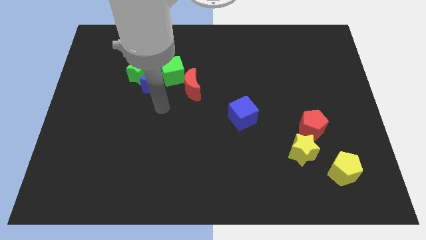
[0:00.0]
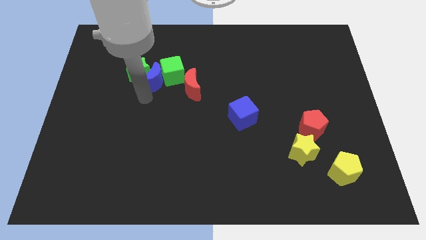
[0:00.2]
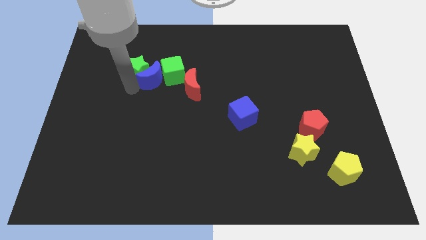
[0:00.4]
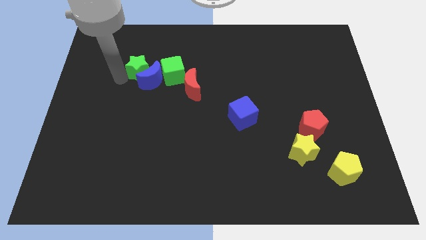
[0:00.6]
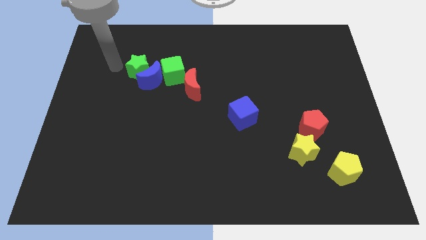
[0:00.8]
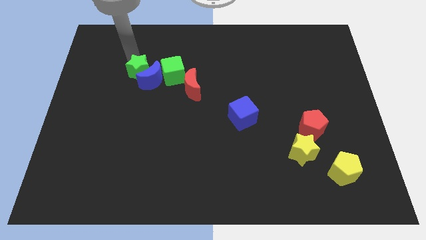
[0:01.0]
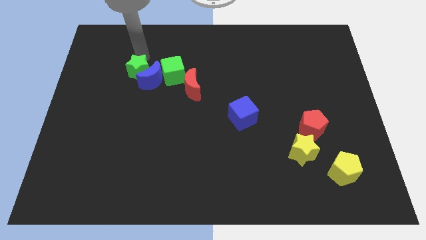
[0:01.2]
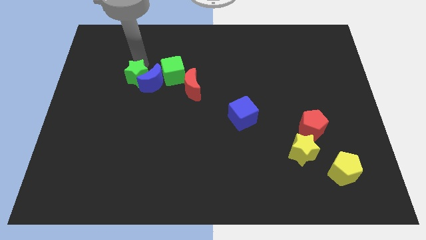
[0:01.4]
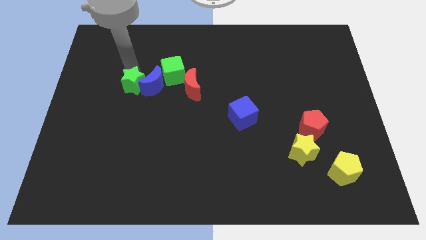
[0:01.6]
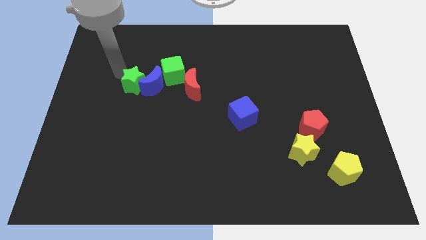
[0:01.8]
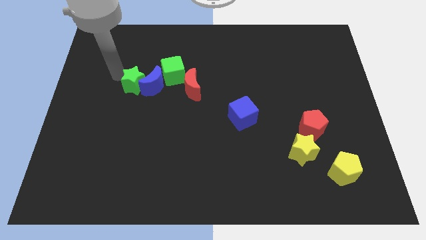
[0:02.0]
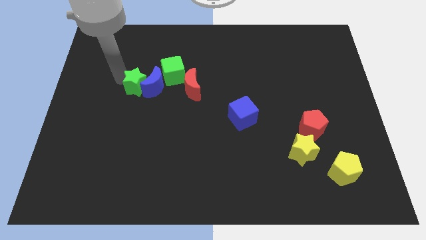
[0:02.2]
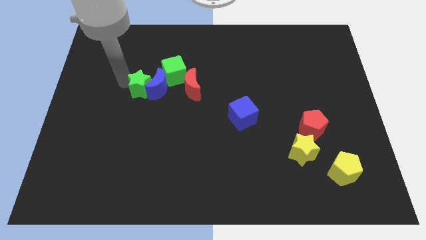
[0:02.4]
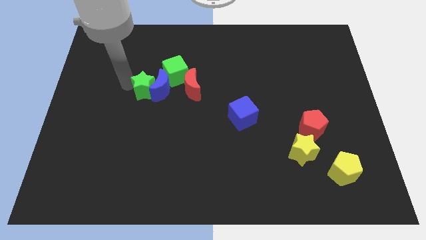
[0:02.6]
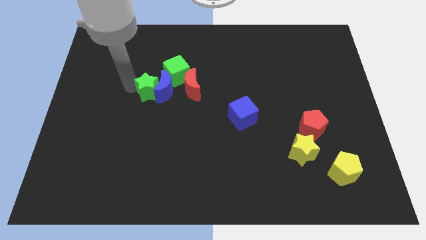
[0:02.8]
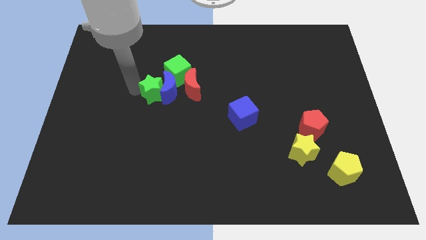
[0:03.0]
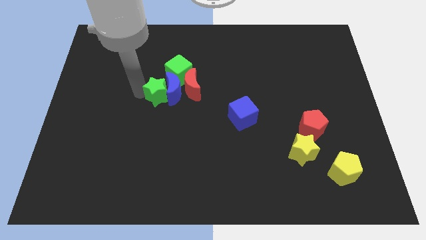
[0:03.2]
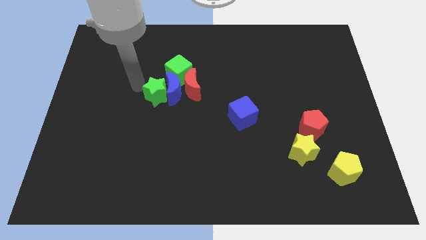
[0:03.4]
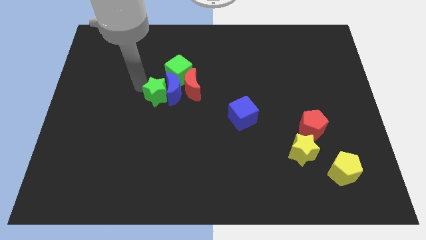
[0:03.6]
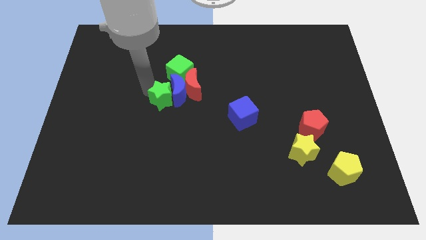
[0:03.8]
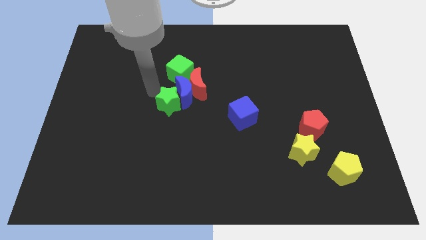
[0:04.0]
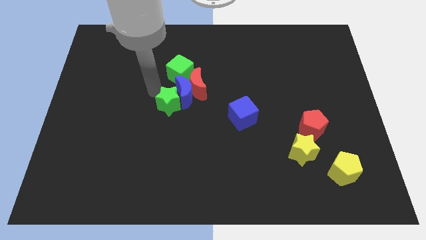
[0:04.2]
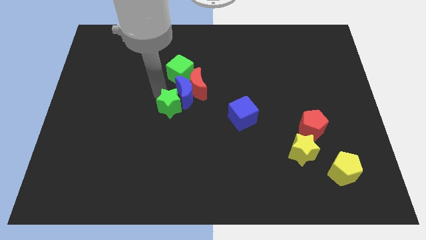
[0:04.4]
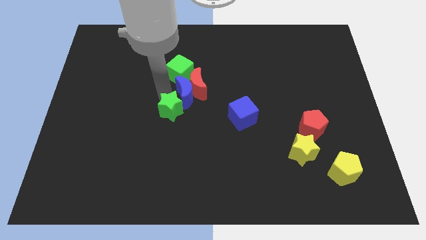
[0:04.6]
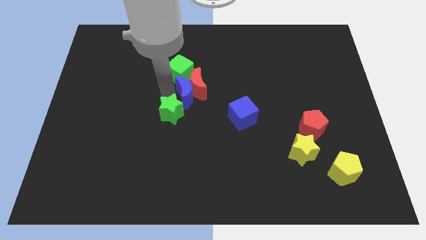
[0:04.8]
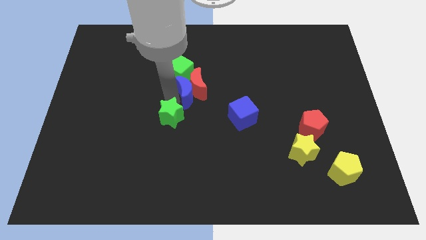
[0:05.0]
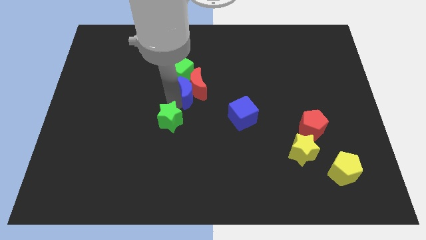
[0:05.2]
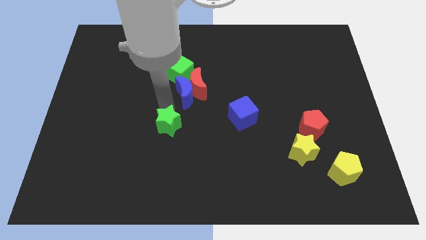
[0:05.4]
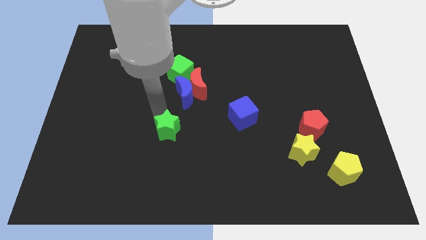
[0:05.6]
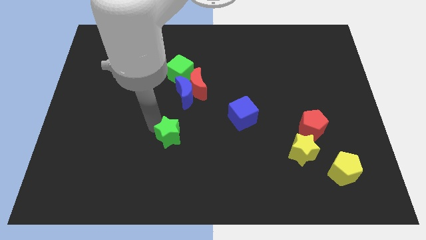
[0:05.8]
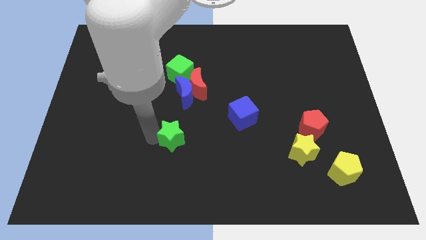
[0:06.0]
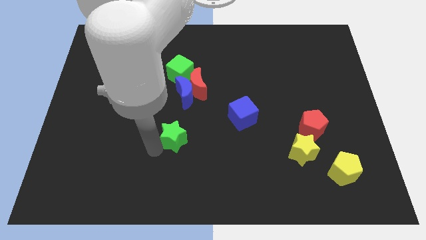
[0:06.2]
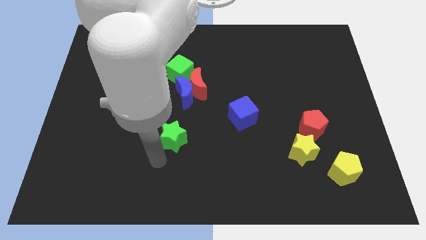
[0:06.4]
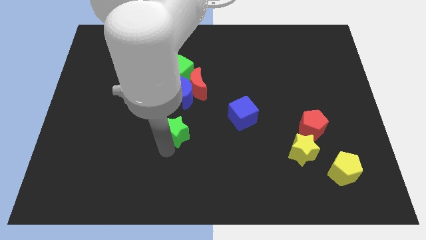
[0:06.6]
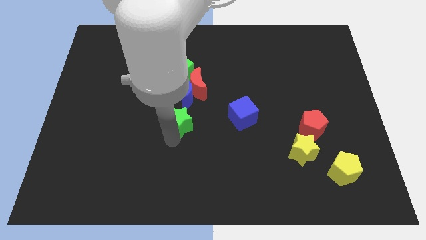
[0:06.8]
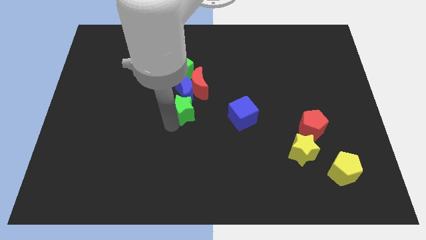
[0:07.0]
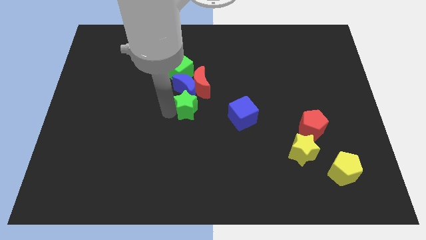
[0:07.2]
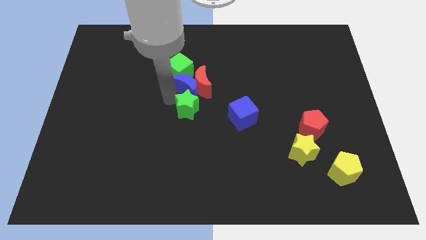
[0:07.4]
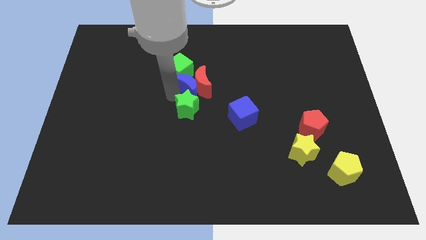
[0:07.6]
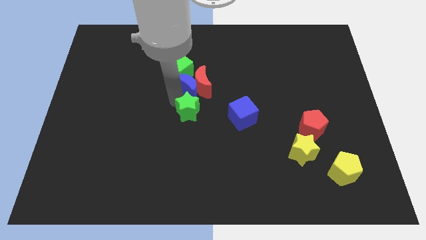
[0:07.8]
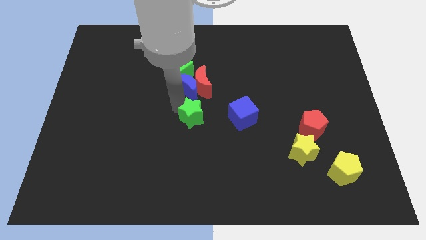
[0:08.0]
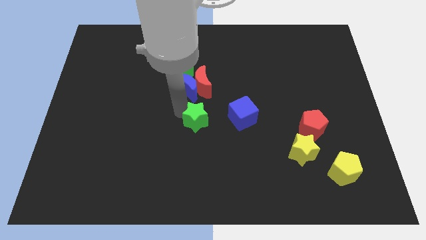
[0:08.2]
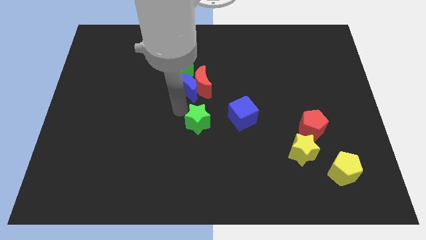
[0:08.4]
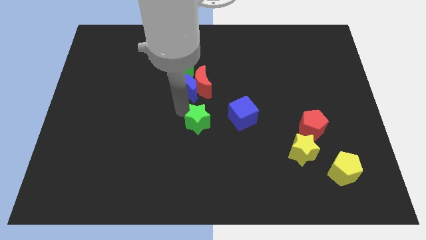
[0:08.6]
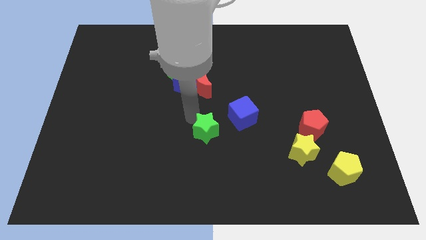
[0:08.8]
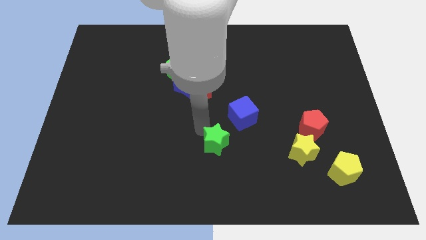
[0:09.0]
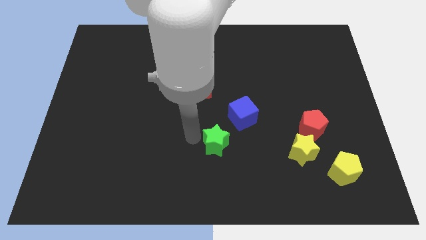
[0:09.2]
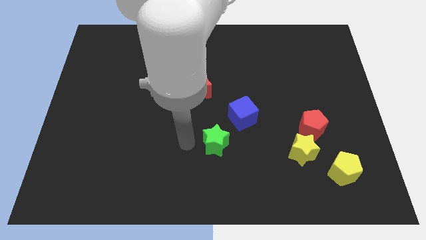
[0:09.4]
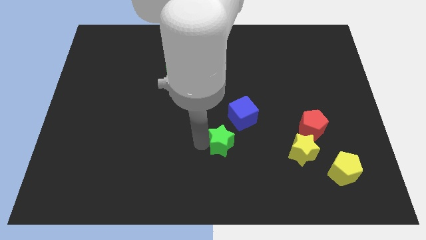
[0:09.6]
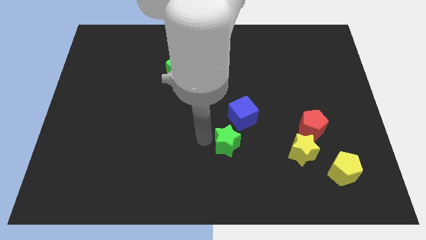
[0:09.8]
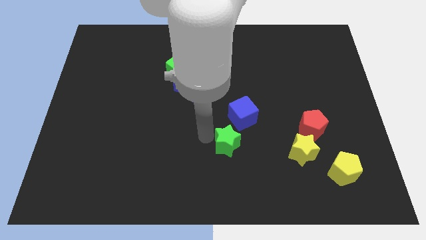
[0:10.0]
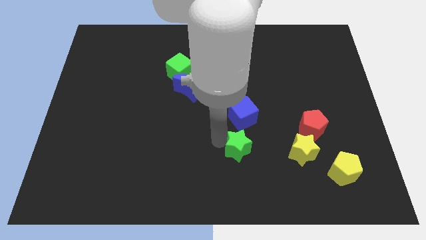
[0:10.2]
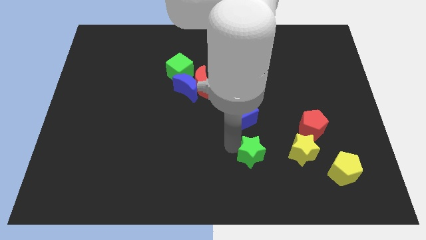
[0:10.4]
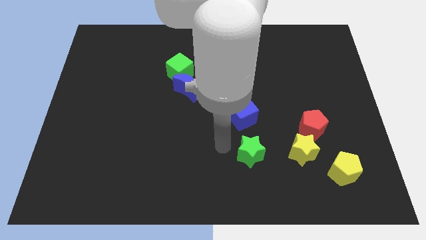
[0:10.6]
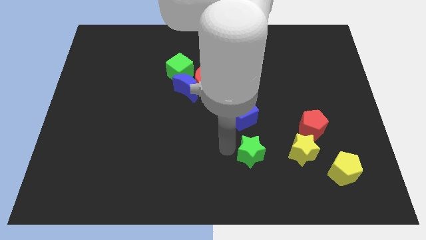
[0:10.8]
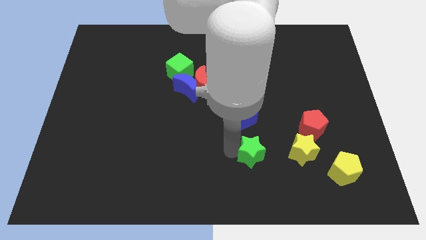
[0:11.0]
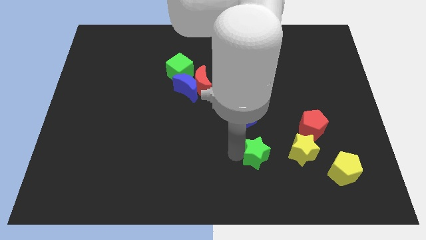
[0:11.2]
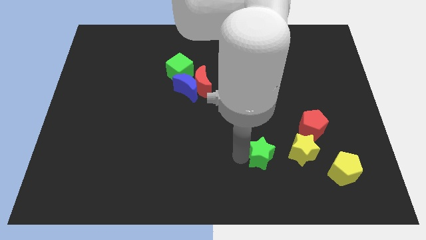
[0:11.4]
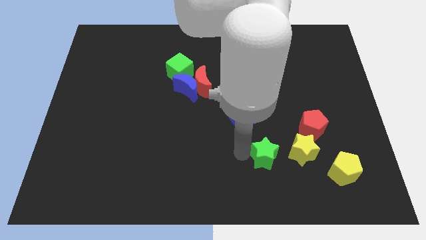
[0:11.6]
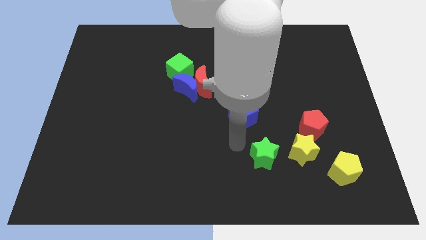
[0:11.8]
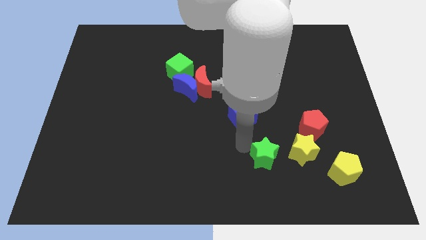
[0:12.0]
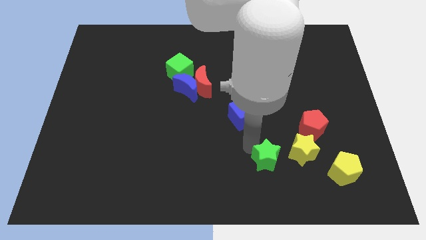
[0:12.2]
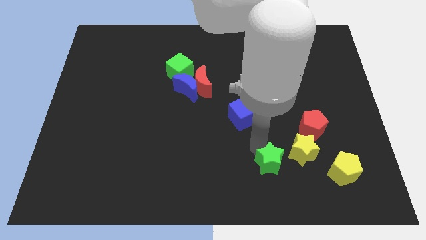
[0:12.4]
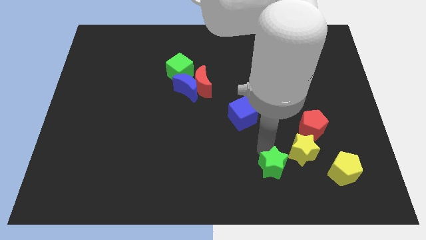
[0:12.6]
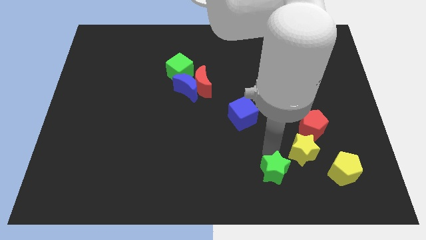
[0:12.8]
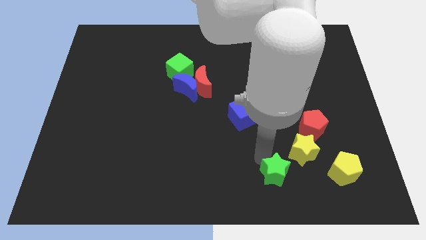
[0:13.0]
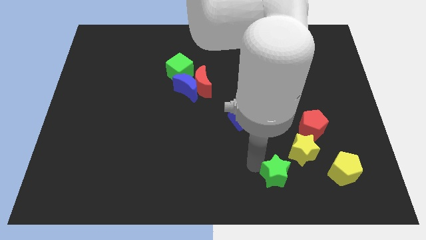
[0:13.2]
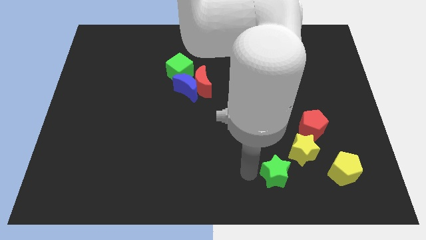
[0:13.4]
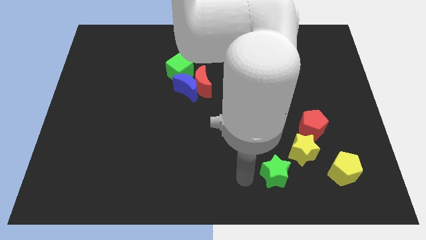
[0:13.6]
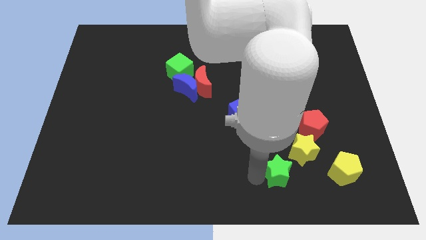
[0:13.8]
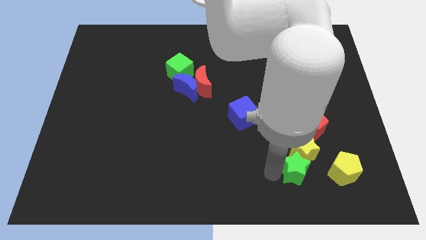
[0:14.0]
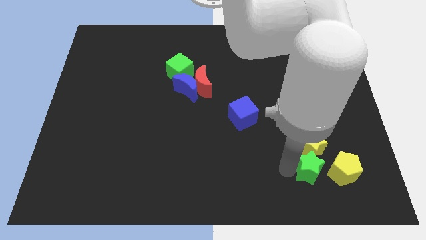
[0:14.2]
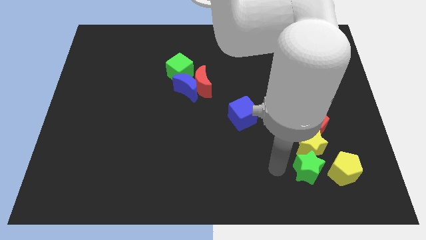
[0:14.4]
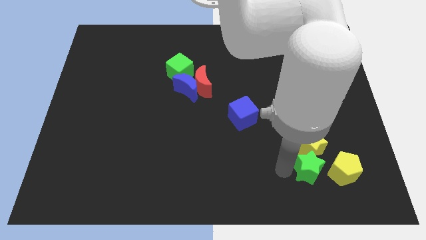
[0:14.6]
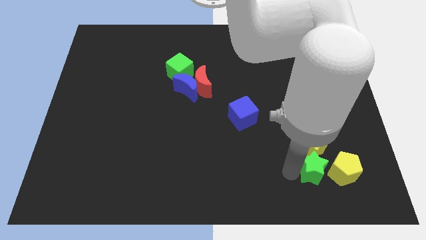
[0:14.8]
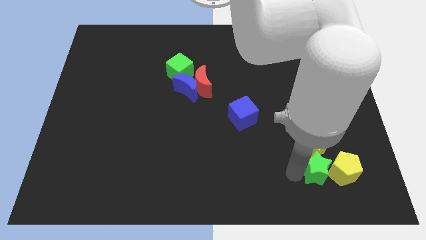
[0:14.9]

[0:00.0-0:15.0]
slide the green star to the yellow pentagon
